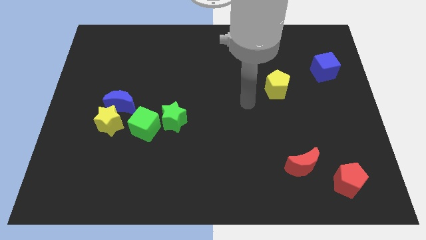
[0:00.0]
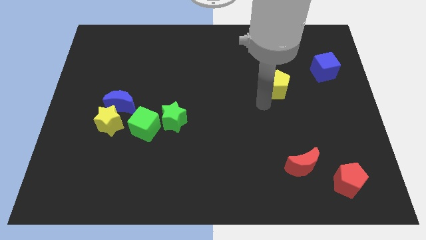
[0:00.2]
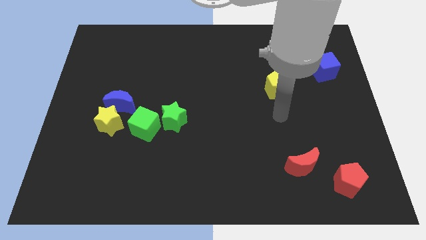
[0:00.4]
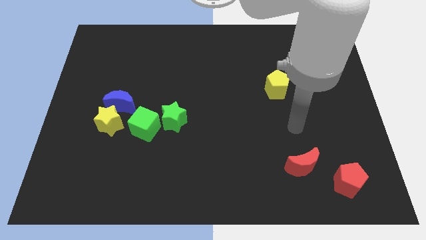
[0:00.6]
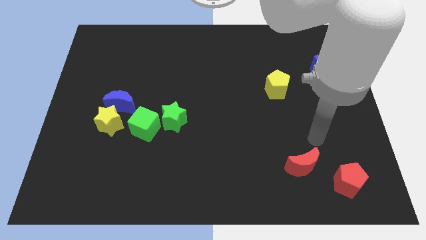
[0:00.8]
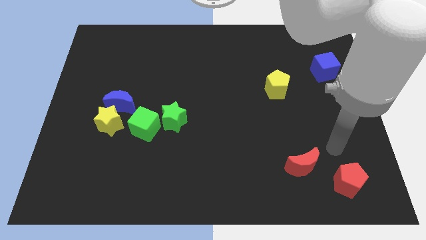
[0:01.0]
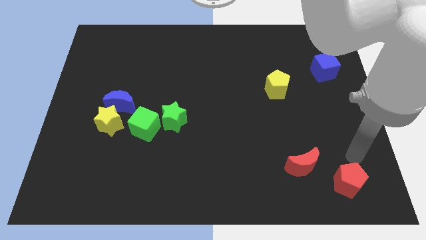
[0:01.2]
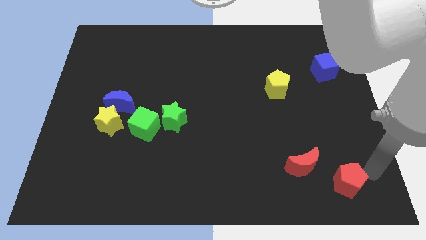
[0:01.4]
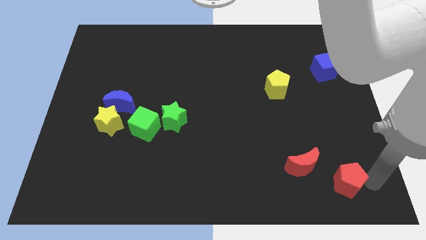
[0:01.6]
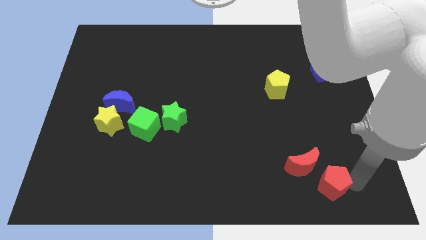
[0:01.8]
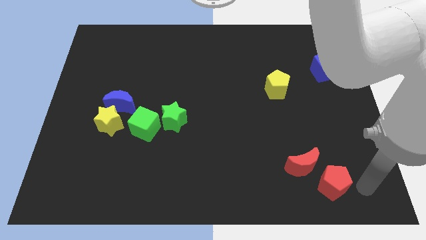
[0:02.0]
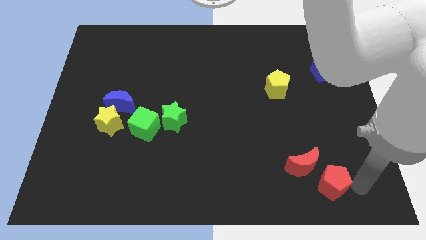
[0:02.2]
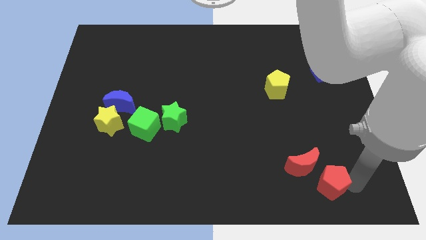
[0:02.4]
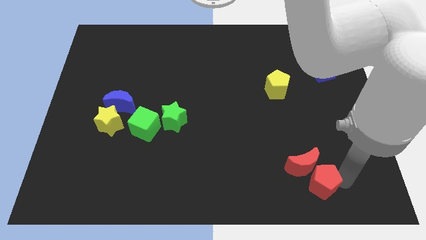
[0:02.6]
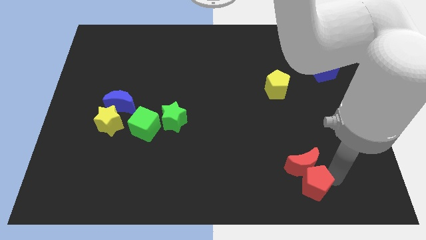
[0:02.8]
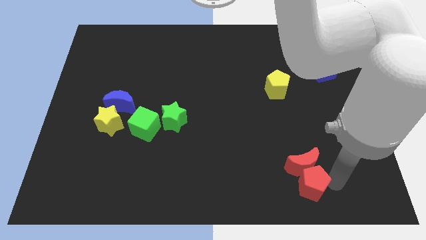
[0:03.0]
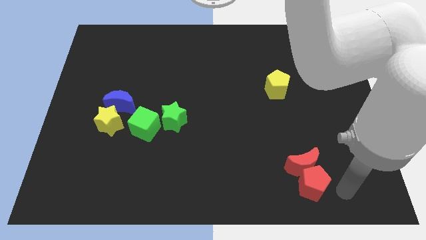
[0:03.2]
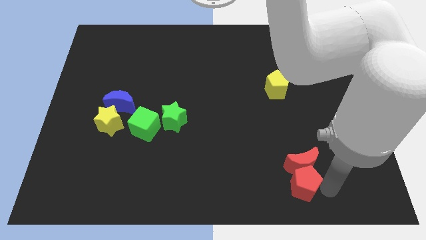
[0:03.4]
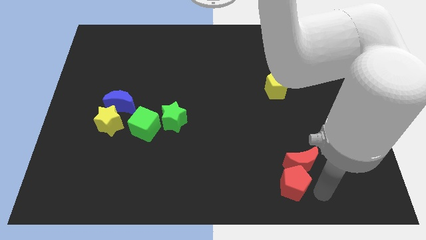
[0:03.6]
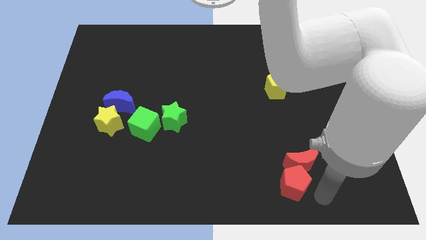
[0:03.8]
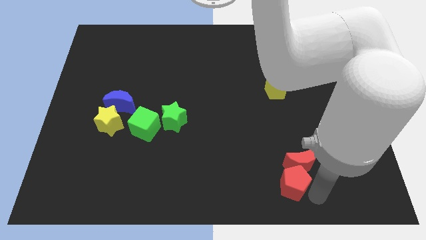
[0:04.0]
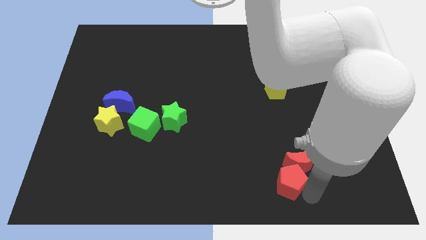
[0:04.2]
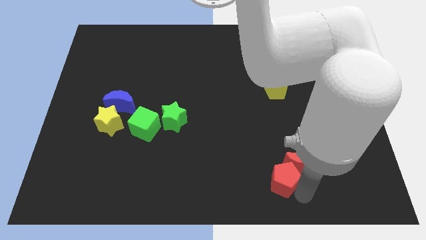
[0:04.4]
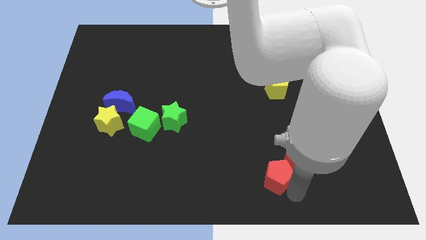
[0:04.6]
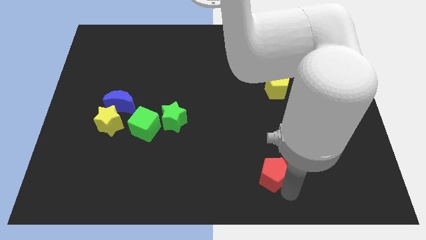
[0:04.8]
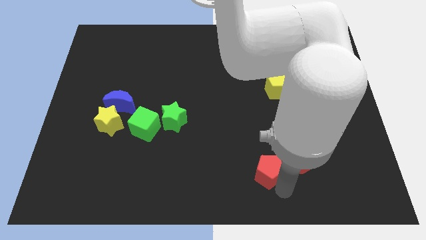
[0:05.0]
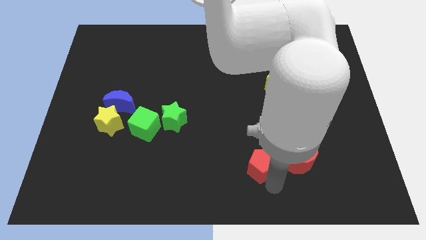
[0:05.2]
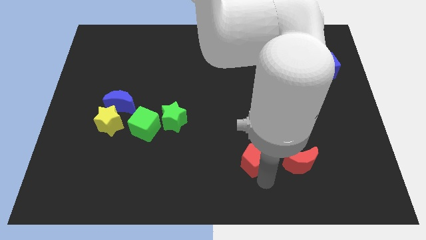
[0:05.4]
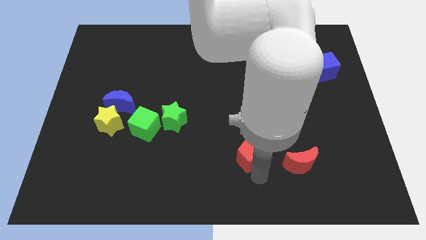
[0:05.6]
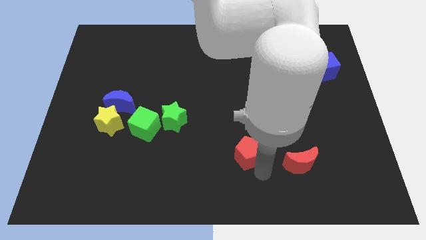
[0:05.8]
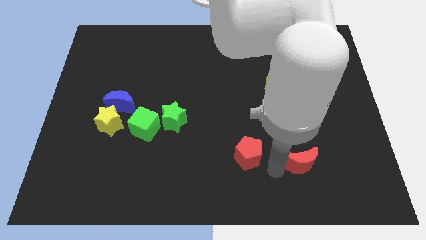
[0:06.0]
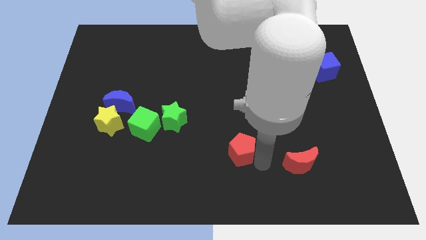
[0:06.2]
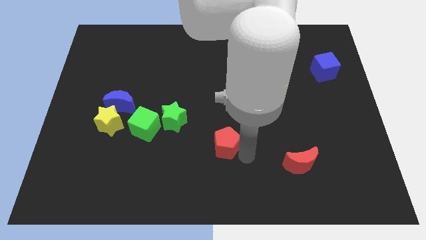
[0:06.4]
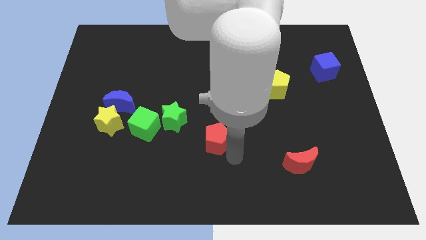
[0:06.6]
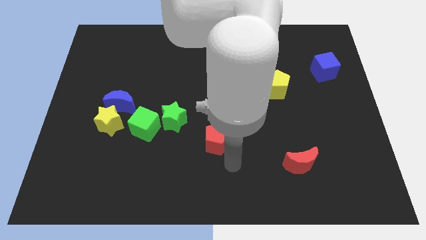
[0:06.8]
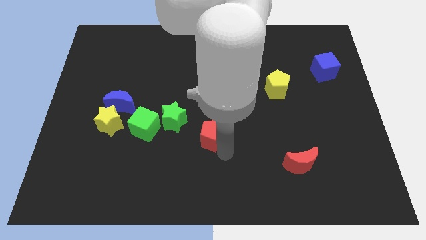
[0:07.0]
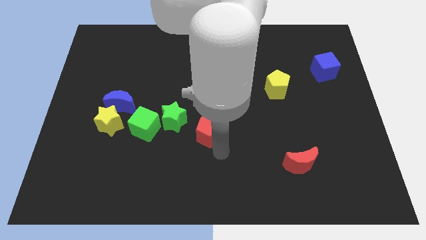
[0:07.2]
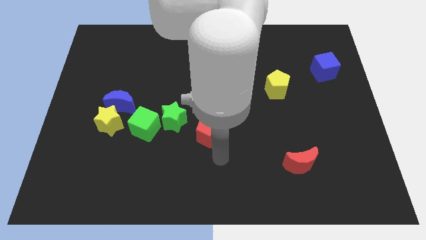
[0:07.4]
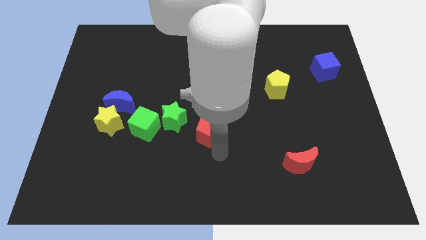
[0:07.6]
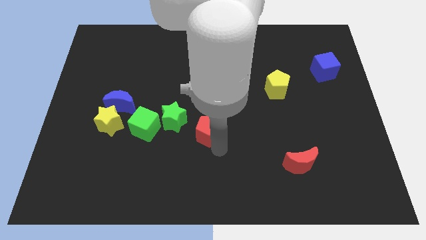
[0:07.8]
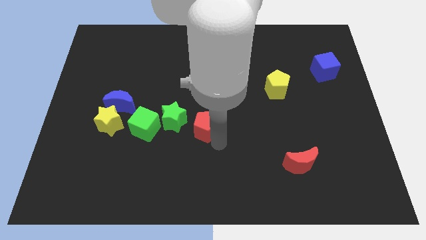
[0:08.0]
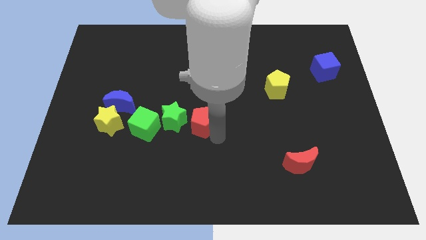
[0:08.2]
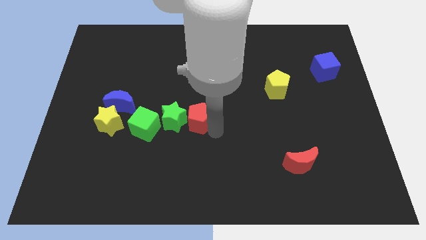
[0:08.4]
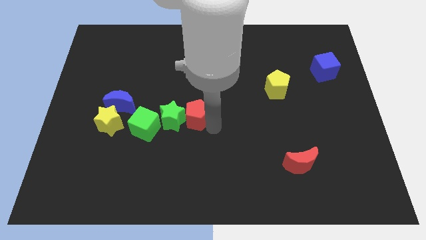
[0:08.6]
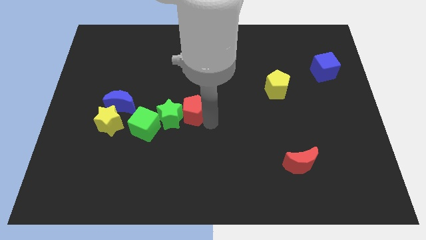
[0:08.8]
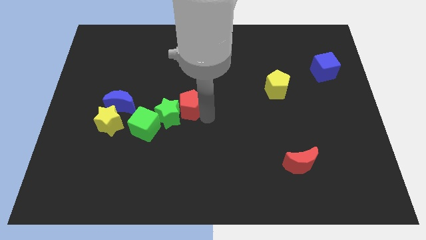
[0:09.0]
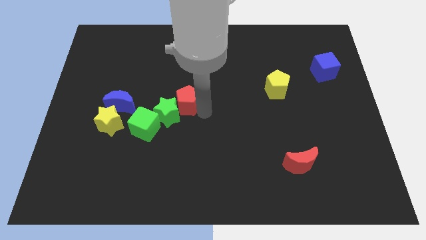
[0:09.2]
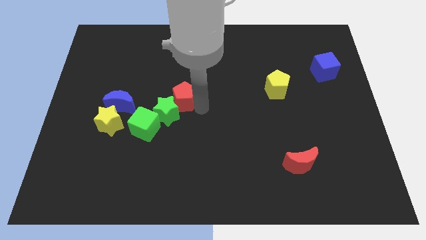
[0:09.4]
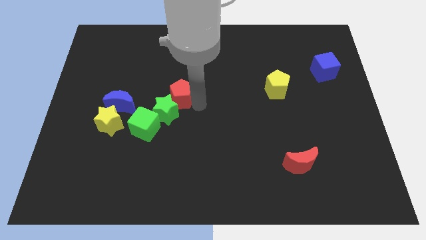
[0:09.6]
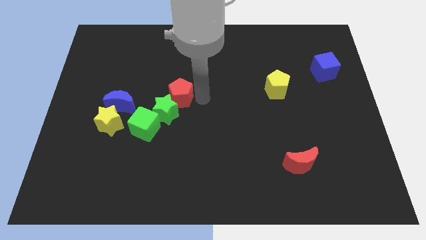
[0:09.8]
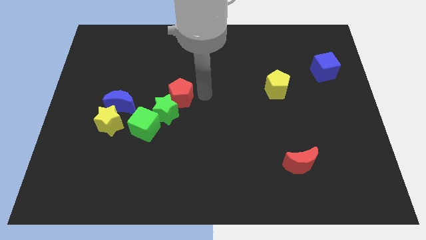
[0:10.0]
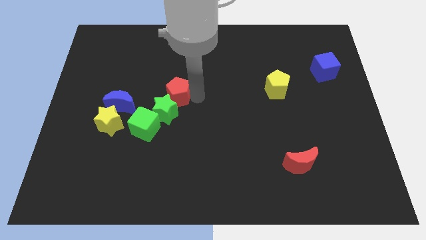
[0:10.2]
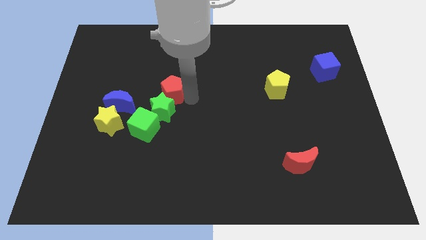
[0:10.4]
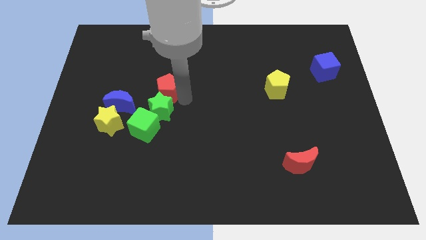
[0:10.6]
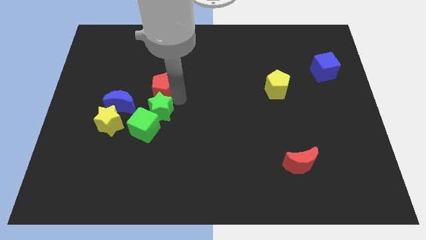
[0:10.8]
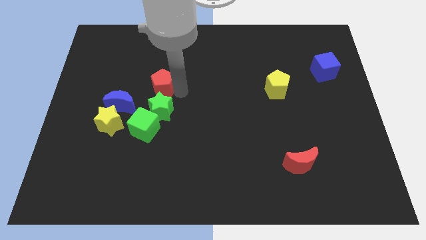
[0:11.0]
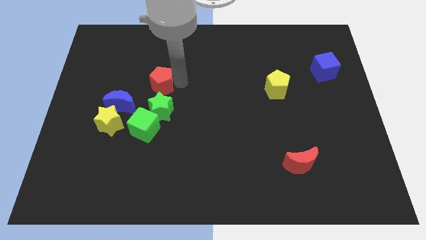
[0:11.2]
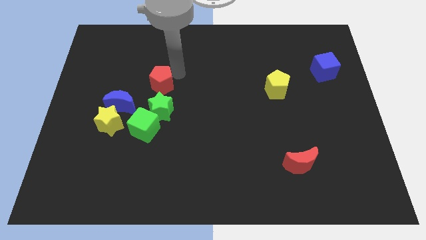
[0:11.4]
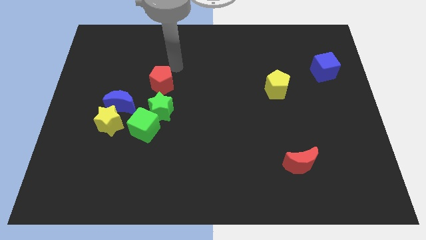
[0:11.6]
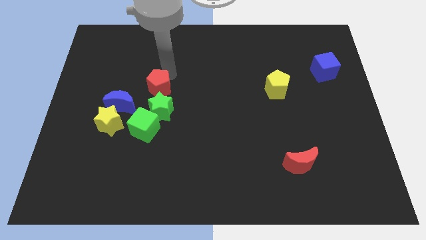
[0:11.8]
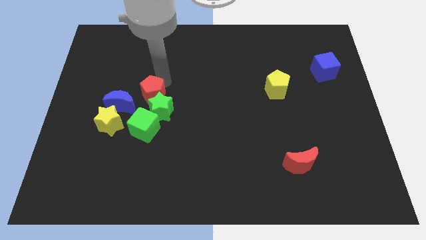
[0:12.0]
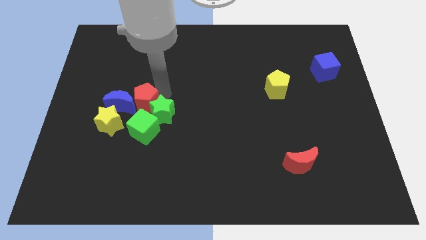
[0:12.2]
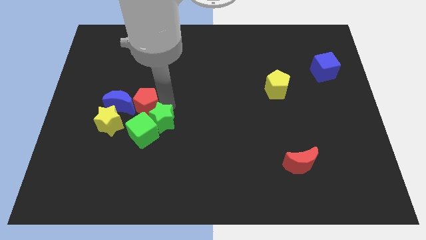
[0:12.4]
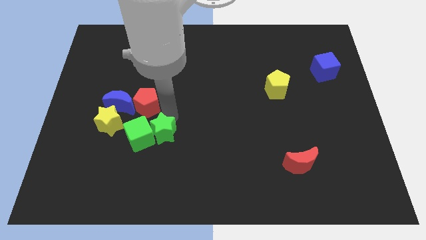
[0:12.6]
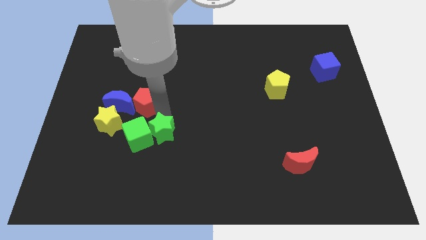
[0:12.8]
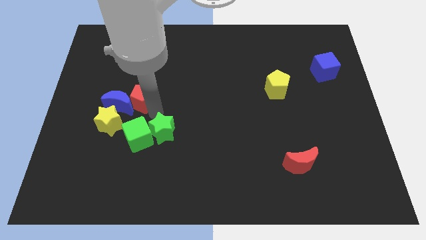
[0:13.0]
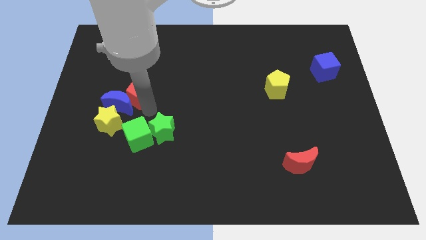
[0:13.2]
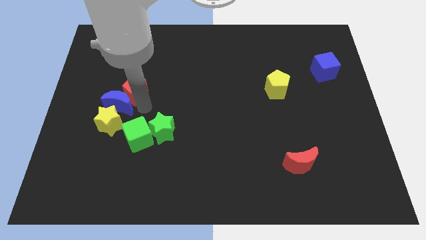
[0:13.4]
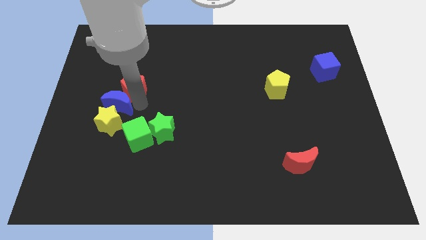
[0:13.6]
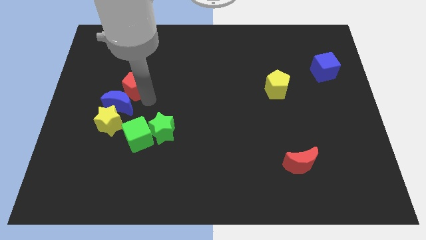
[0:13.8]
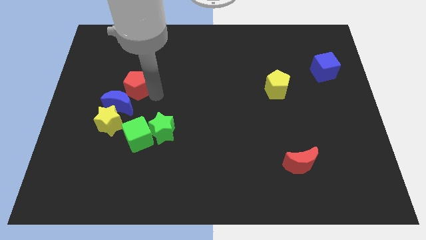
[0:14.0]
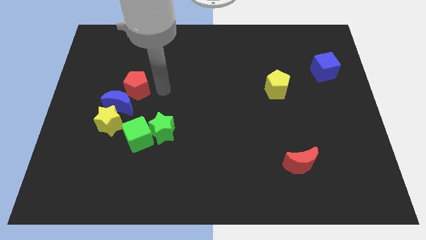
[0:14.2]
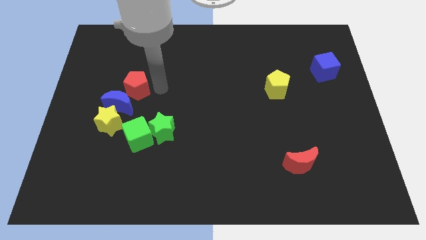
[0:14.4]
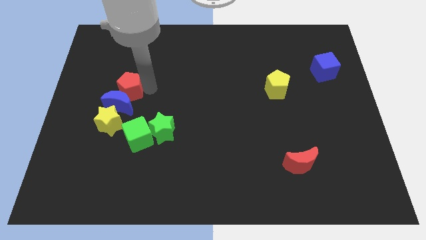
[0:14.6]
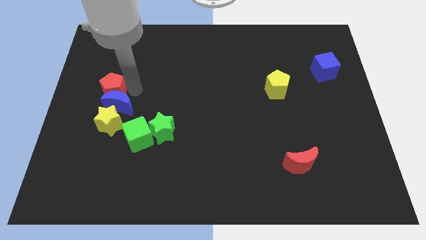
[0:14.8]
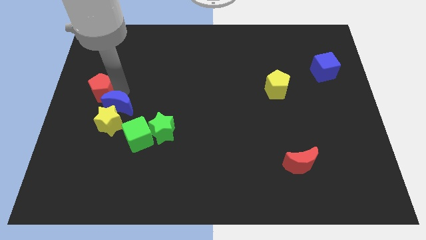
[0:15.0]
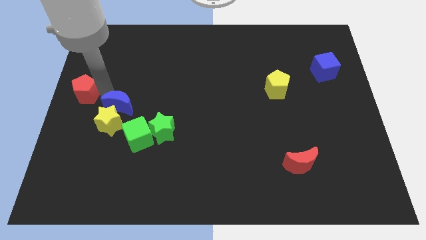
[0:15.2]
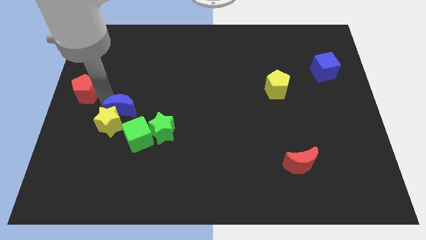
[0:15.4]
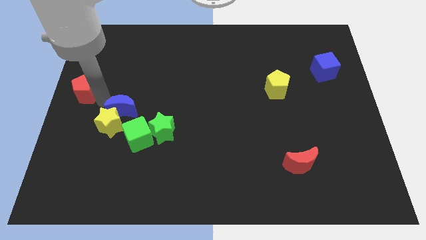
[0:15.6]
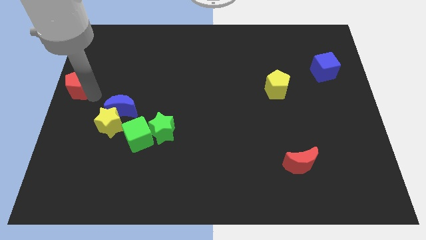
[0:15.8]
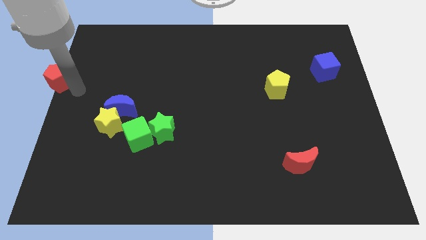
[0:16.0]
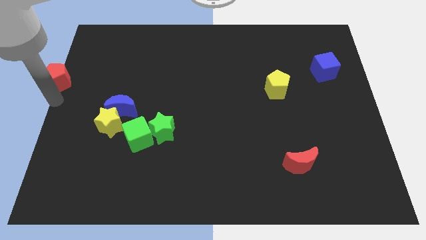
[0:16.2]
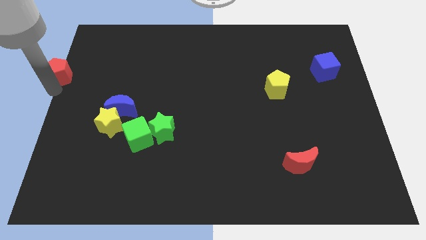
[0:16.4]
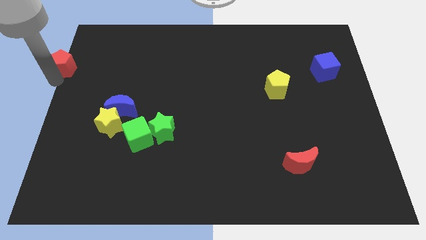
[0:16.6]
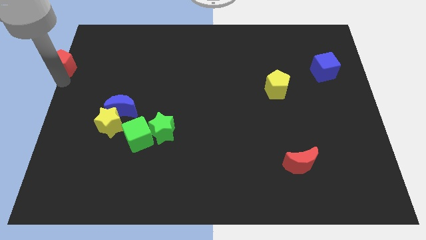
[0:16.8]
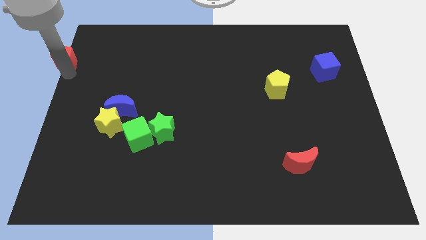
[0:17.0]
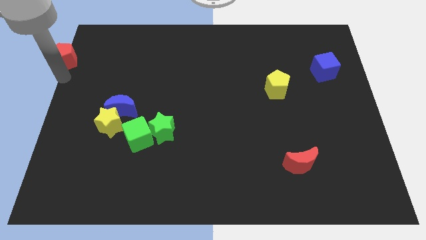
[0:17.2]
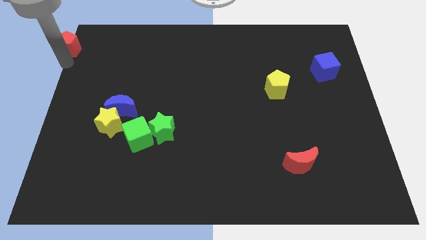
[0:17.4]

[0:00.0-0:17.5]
slide the red pentagon to the top left
